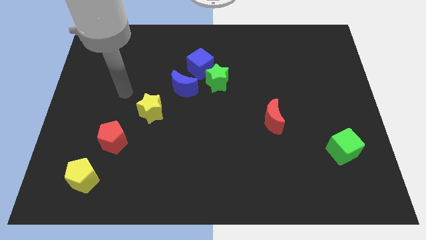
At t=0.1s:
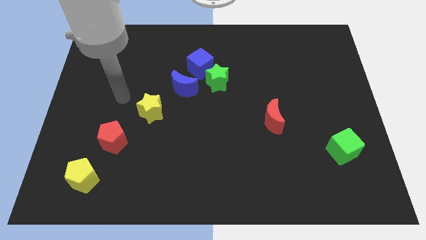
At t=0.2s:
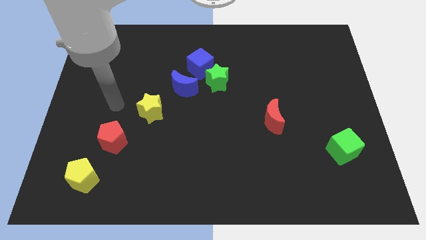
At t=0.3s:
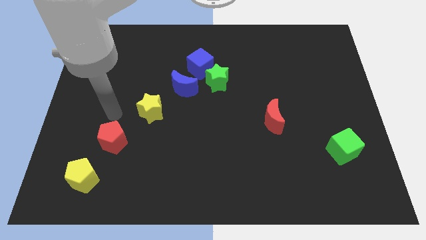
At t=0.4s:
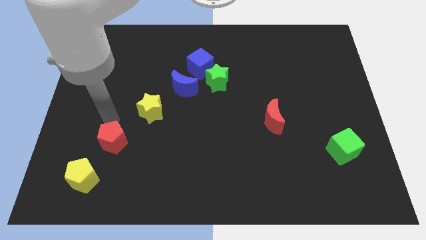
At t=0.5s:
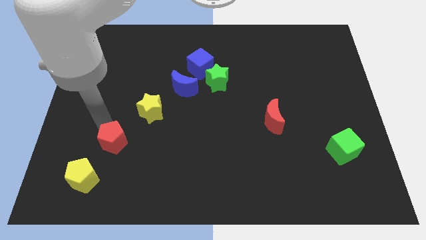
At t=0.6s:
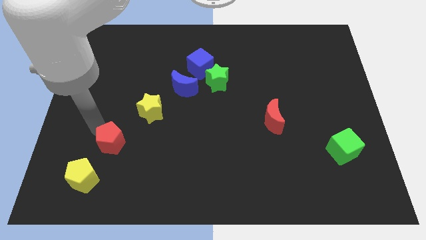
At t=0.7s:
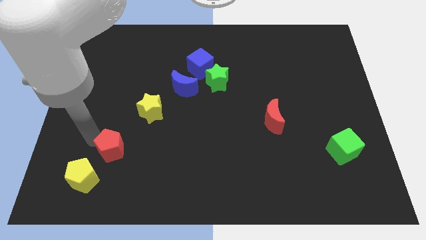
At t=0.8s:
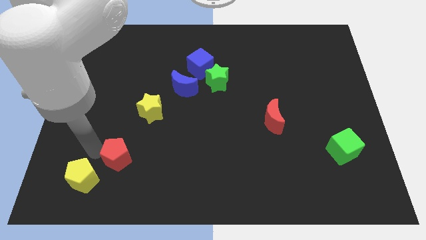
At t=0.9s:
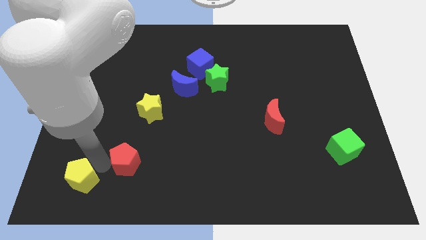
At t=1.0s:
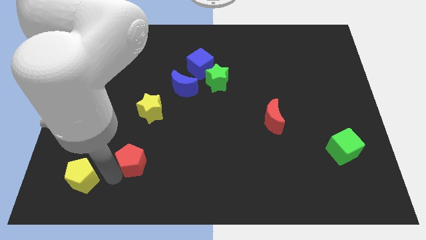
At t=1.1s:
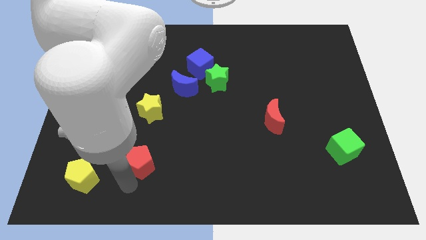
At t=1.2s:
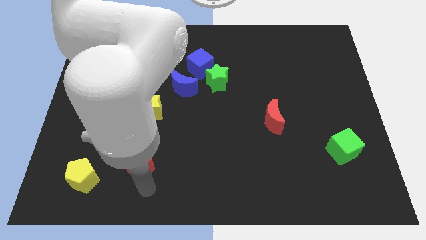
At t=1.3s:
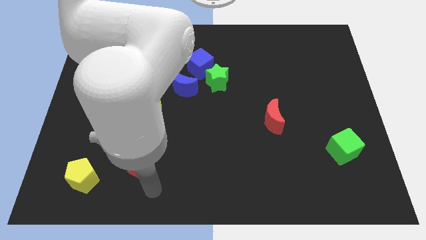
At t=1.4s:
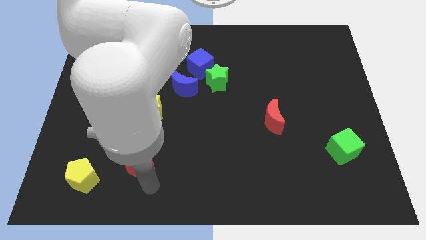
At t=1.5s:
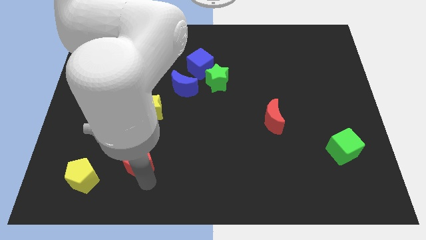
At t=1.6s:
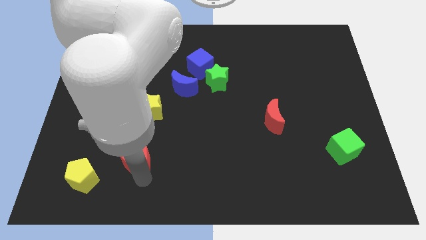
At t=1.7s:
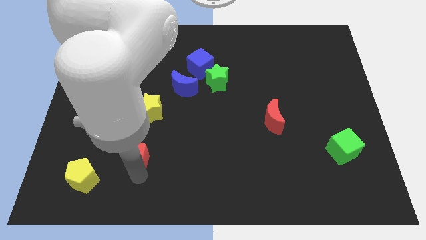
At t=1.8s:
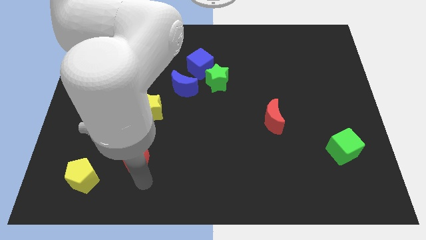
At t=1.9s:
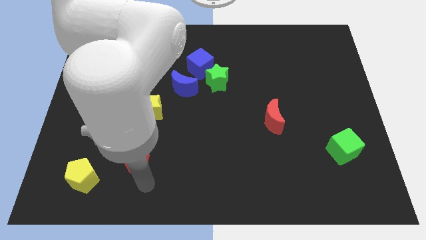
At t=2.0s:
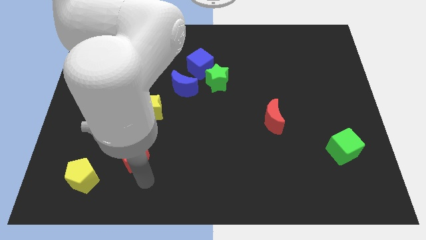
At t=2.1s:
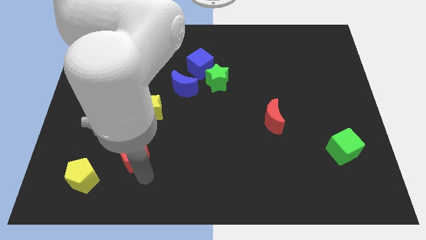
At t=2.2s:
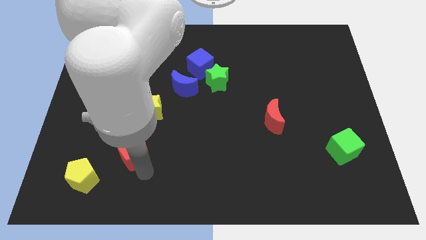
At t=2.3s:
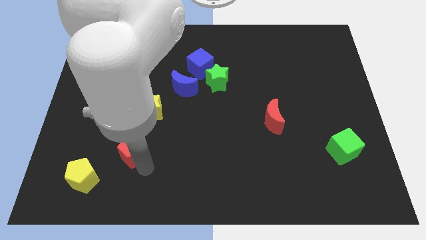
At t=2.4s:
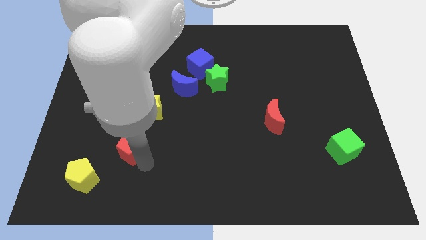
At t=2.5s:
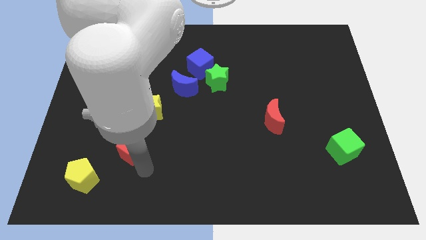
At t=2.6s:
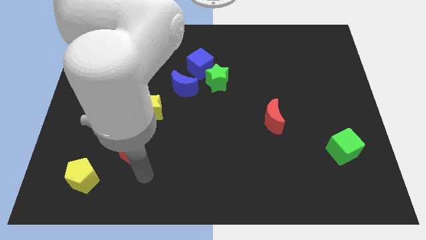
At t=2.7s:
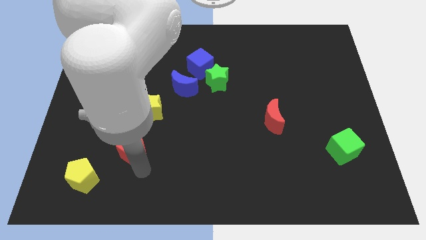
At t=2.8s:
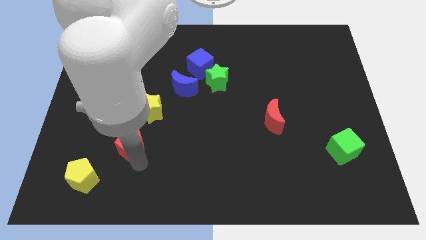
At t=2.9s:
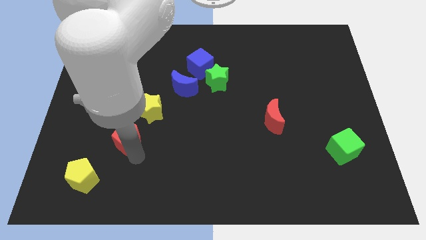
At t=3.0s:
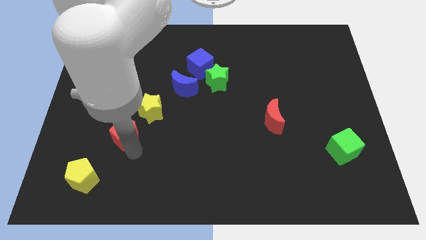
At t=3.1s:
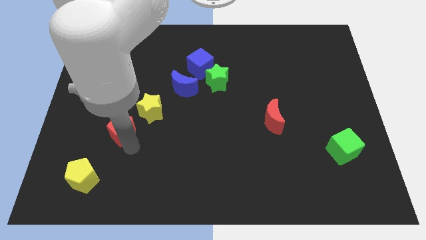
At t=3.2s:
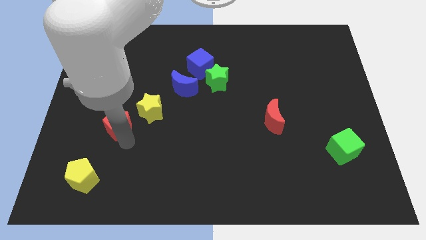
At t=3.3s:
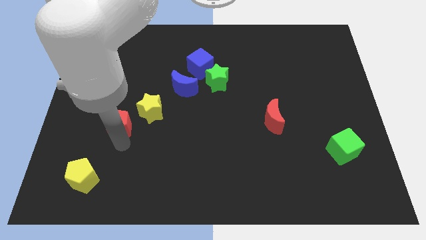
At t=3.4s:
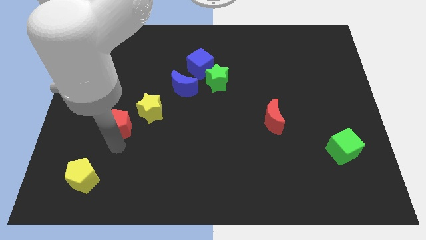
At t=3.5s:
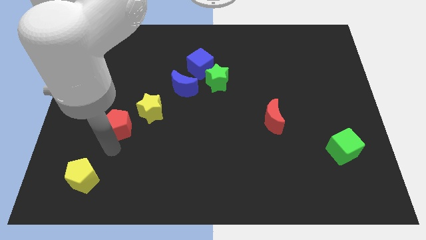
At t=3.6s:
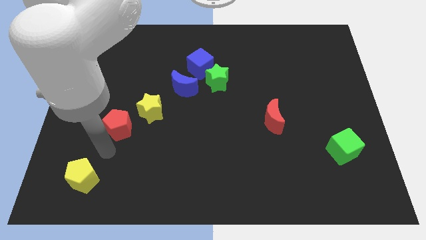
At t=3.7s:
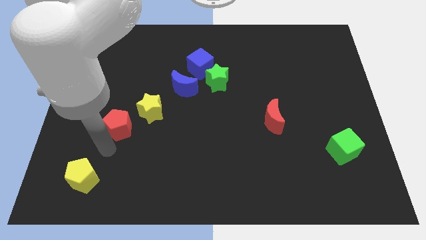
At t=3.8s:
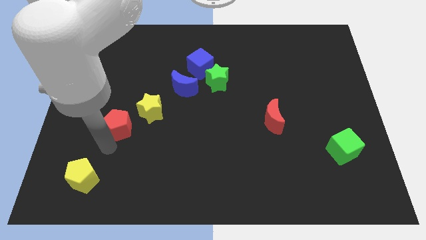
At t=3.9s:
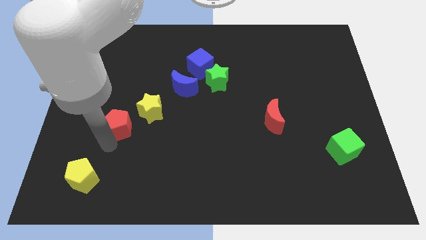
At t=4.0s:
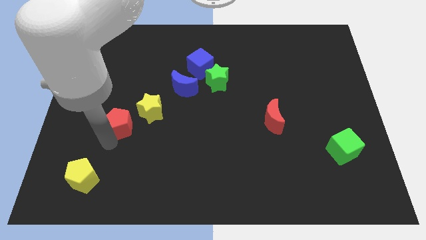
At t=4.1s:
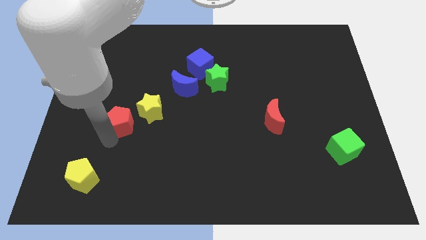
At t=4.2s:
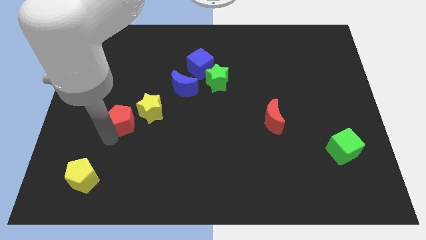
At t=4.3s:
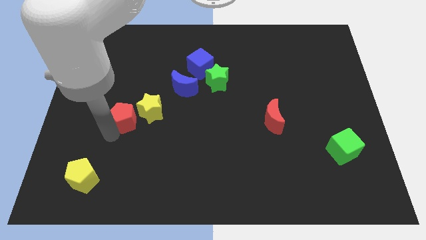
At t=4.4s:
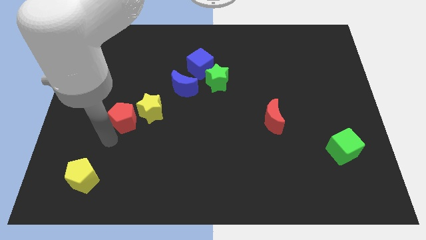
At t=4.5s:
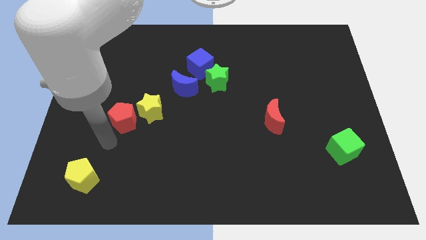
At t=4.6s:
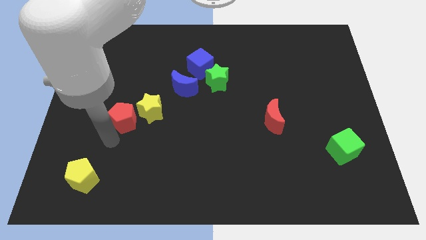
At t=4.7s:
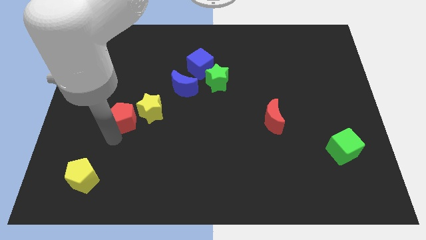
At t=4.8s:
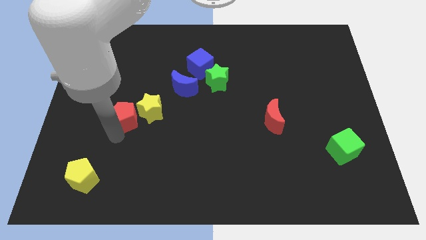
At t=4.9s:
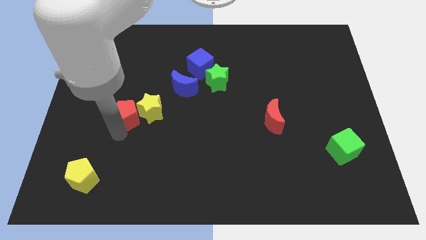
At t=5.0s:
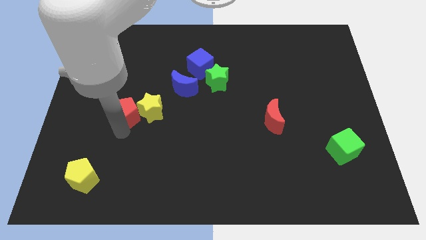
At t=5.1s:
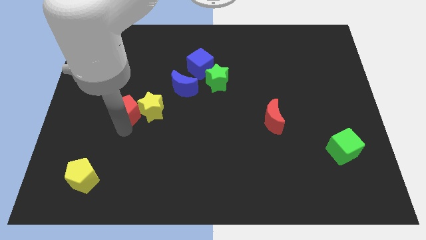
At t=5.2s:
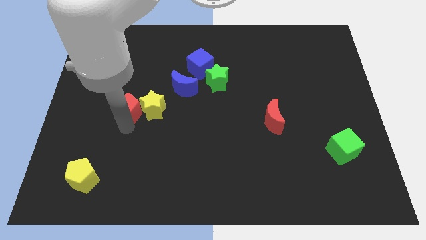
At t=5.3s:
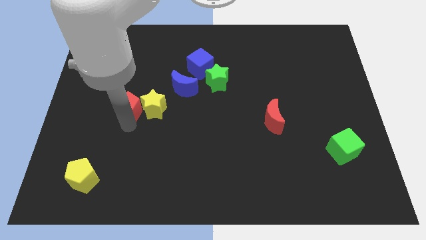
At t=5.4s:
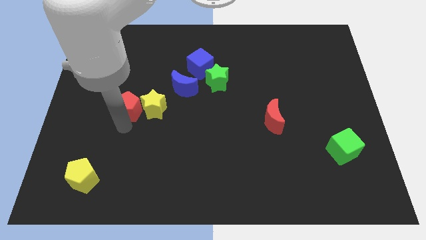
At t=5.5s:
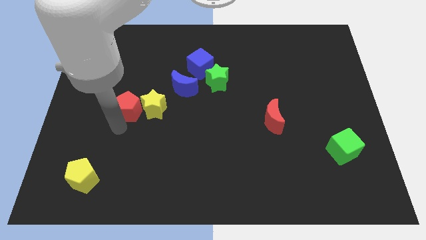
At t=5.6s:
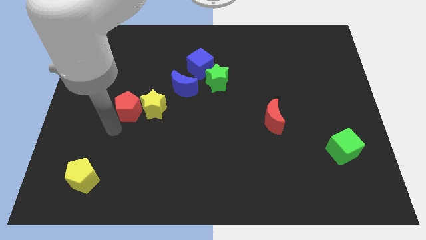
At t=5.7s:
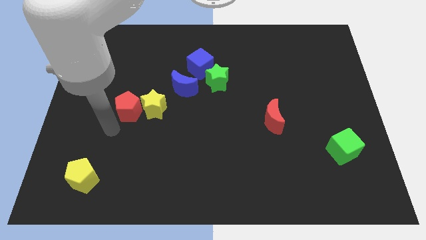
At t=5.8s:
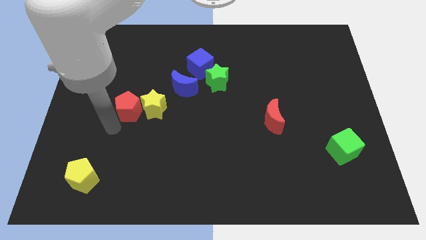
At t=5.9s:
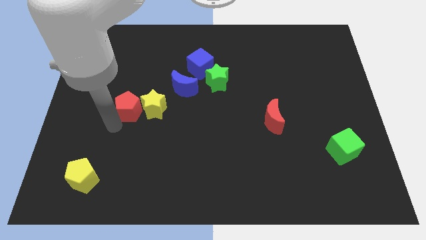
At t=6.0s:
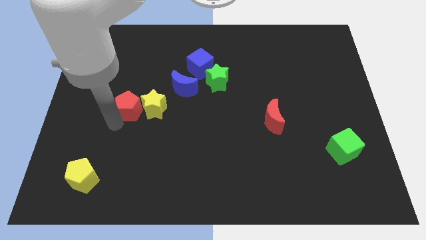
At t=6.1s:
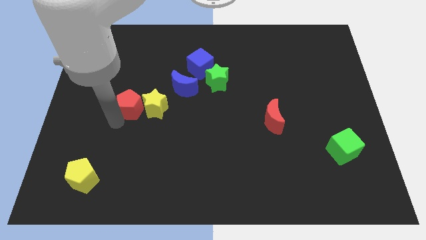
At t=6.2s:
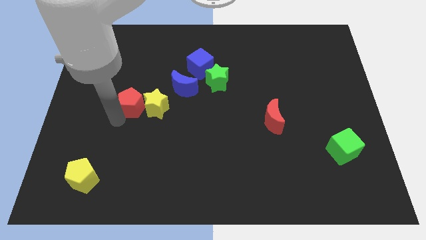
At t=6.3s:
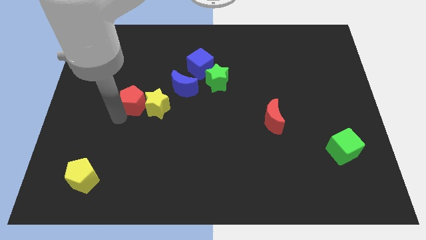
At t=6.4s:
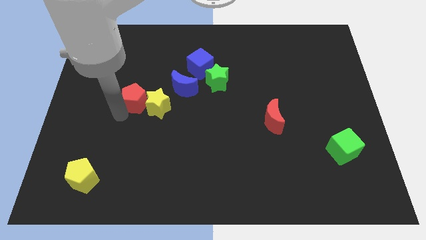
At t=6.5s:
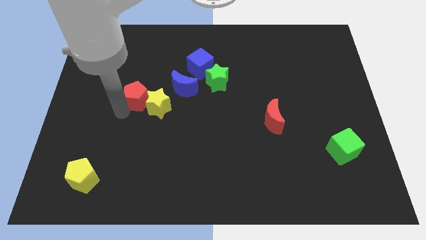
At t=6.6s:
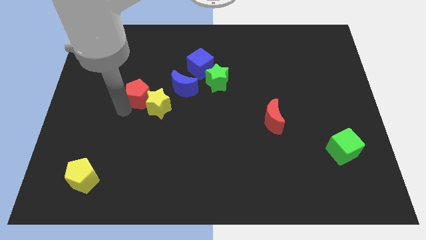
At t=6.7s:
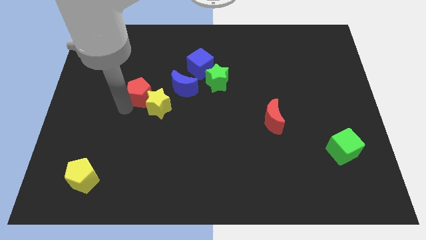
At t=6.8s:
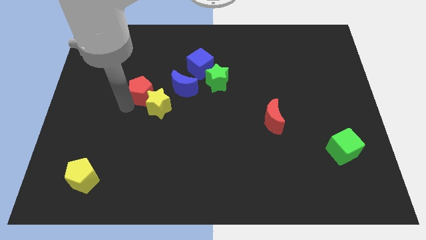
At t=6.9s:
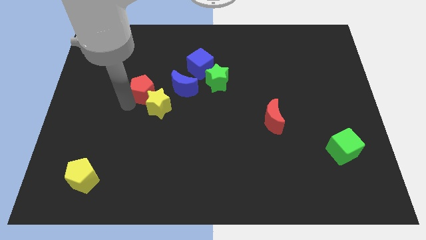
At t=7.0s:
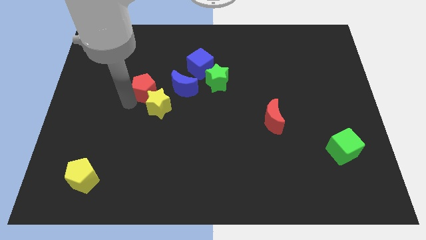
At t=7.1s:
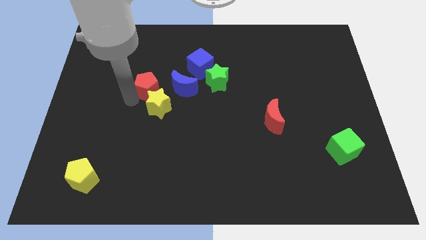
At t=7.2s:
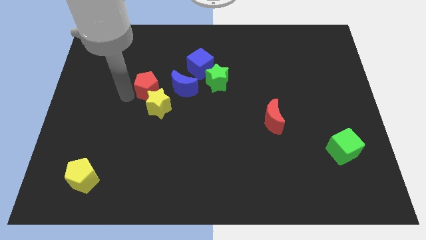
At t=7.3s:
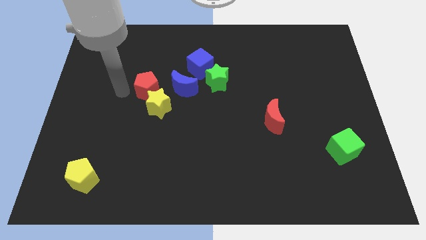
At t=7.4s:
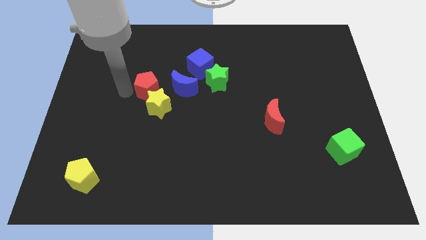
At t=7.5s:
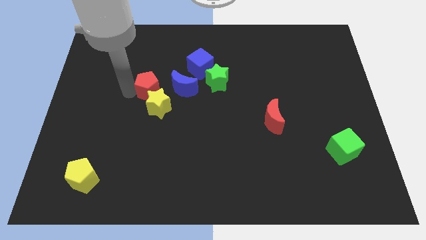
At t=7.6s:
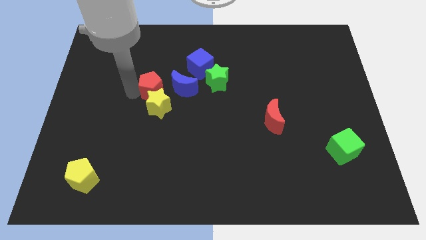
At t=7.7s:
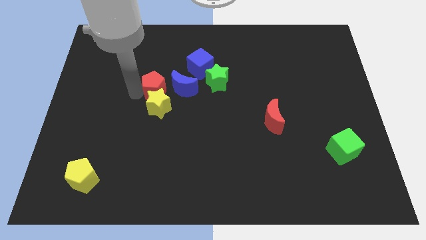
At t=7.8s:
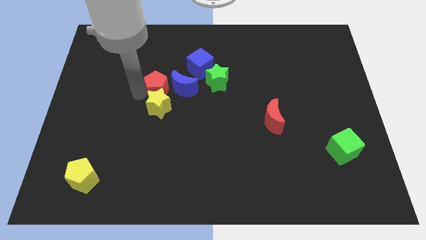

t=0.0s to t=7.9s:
put the red pentagon close to the blue moon
